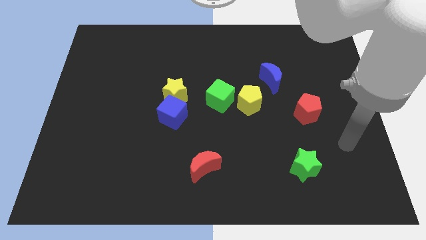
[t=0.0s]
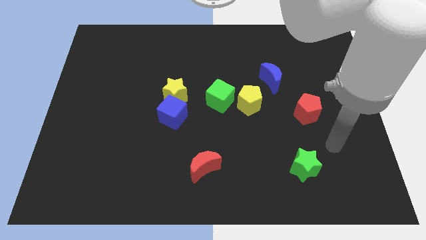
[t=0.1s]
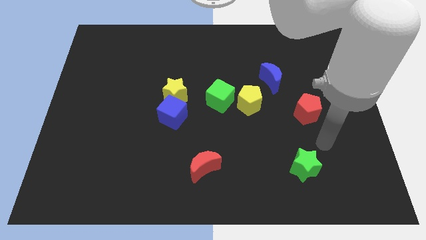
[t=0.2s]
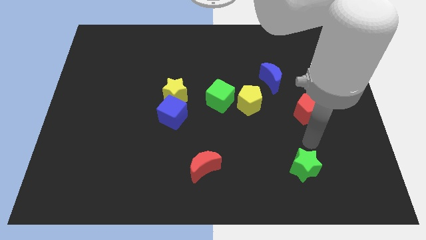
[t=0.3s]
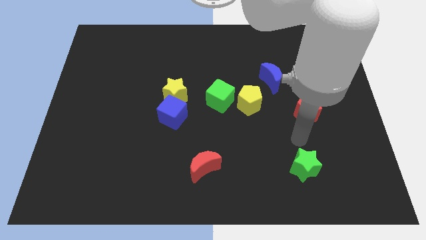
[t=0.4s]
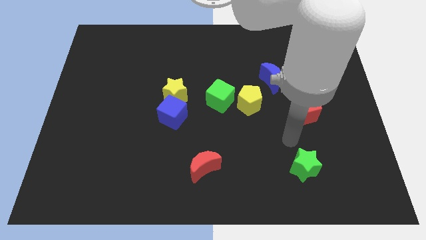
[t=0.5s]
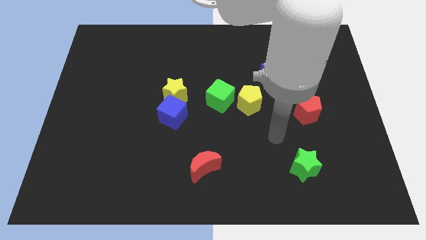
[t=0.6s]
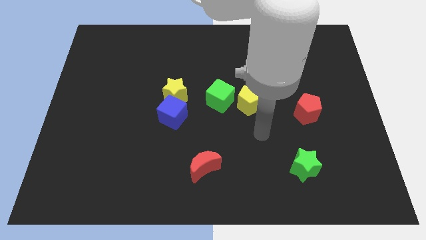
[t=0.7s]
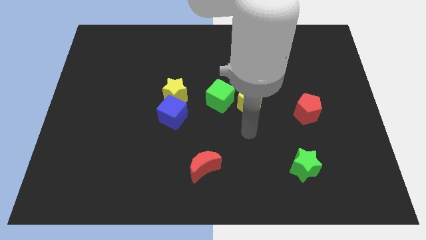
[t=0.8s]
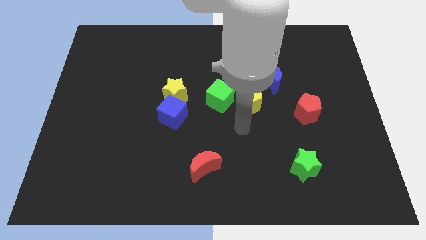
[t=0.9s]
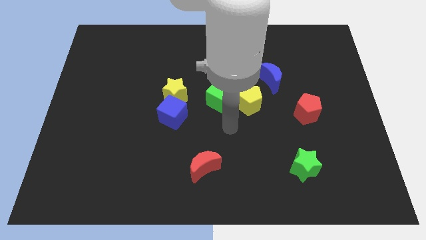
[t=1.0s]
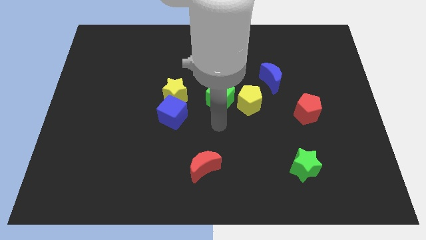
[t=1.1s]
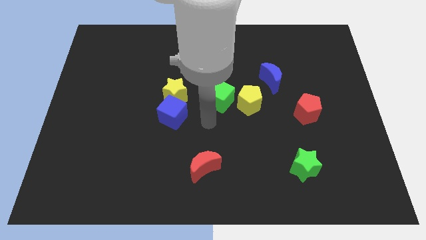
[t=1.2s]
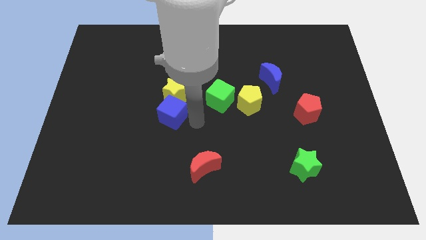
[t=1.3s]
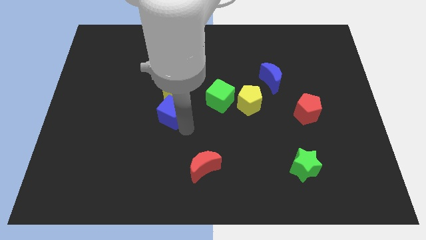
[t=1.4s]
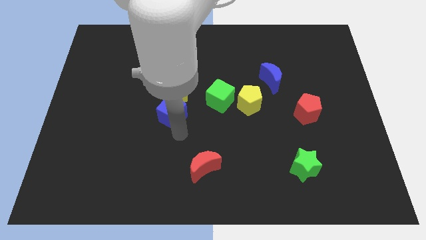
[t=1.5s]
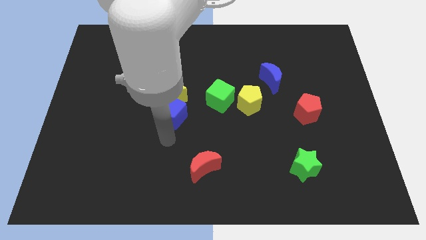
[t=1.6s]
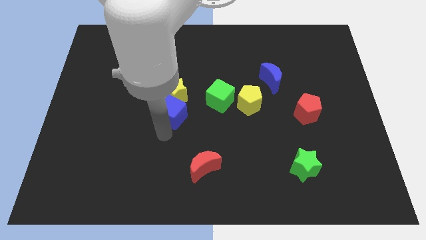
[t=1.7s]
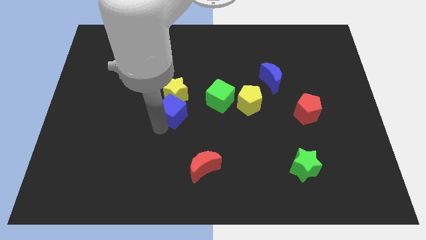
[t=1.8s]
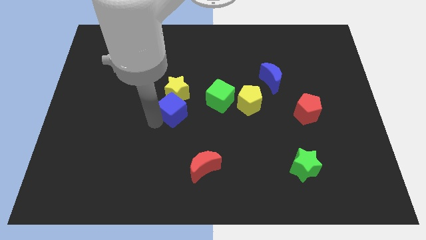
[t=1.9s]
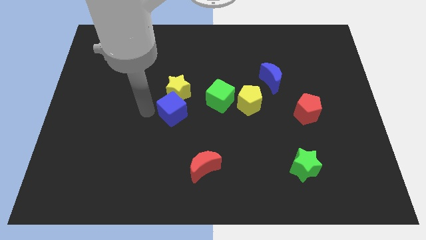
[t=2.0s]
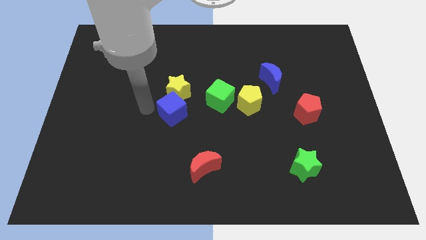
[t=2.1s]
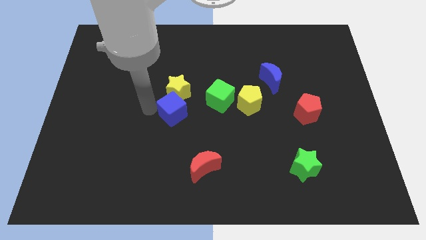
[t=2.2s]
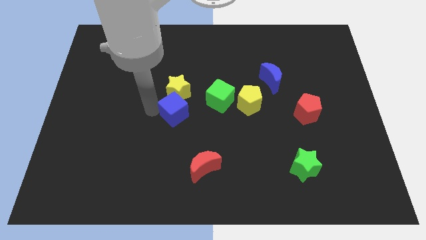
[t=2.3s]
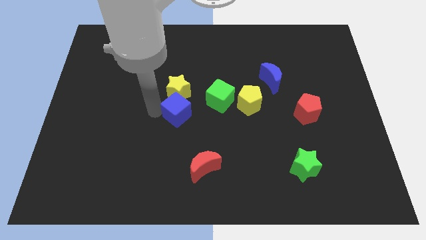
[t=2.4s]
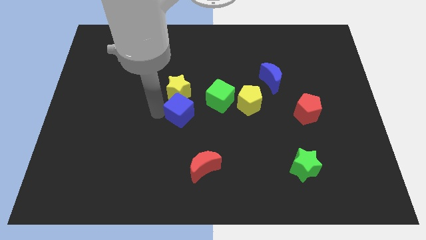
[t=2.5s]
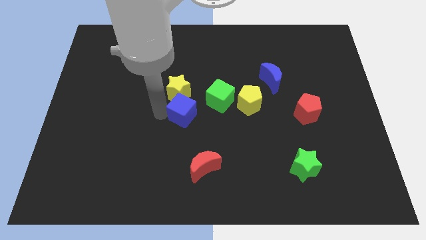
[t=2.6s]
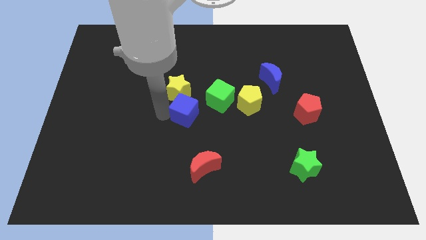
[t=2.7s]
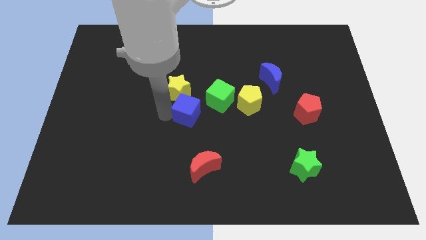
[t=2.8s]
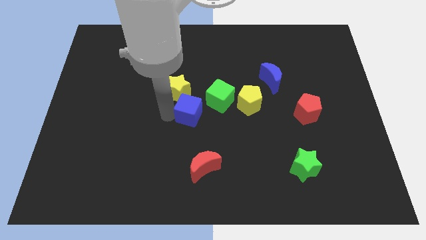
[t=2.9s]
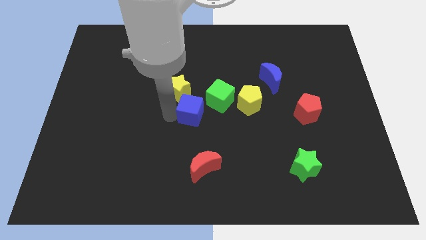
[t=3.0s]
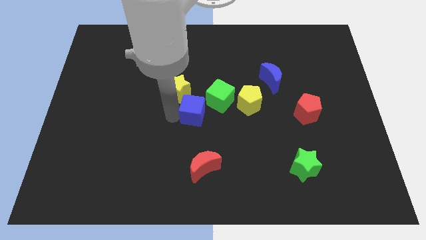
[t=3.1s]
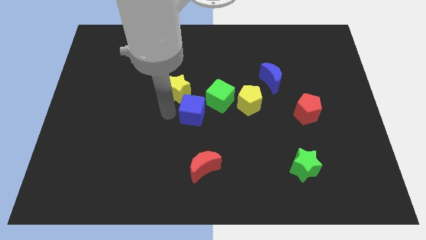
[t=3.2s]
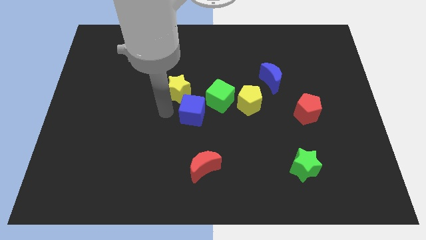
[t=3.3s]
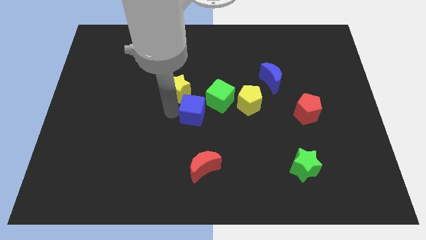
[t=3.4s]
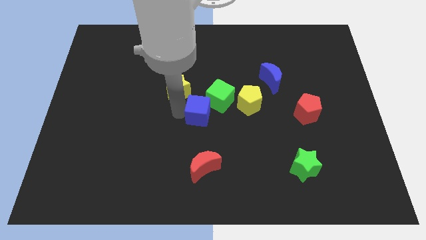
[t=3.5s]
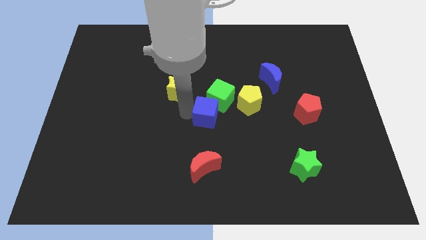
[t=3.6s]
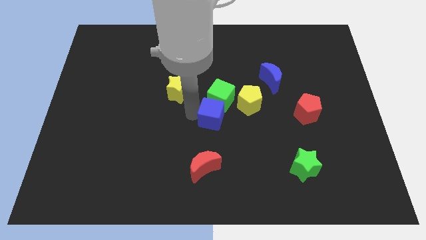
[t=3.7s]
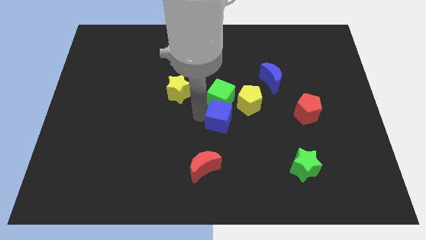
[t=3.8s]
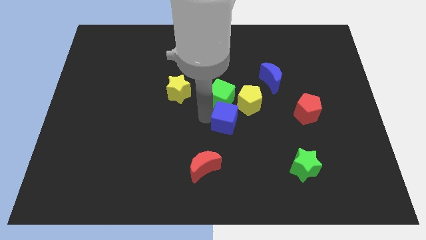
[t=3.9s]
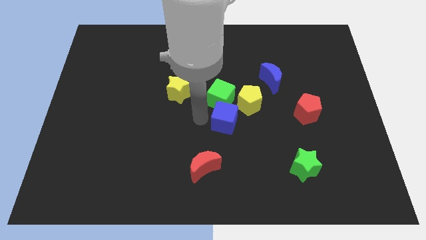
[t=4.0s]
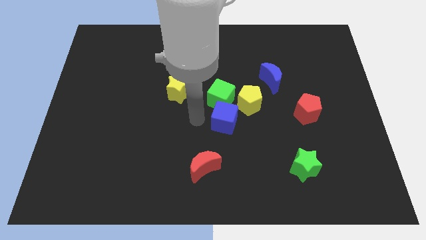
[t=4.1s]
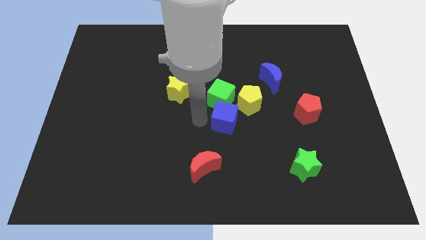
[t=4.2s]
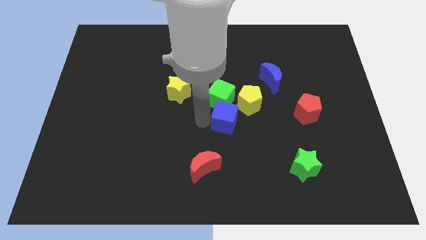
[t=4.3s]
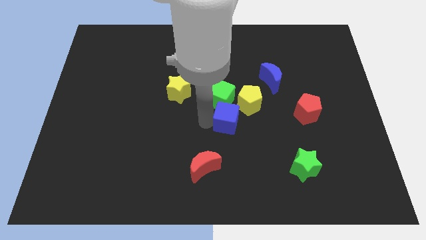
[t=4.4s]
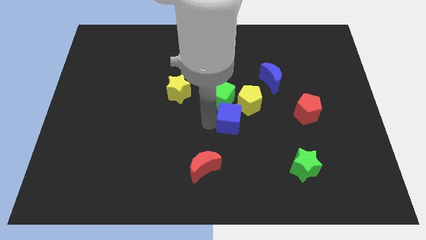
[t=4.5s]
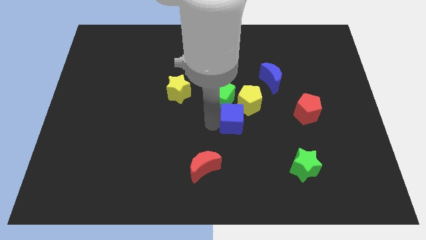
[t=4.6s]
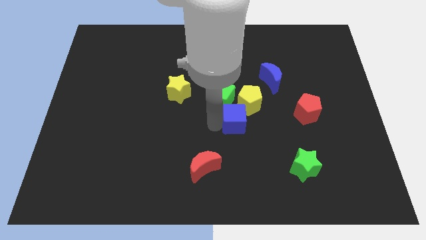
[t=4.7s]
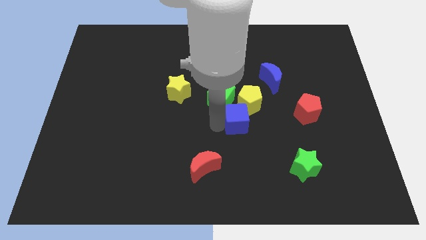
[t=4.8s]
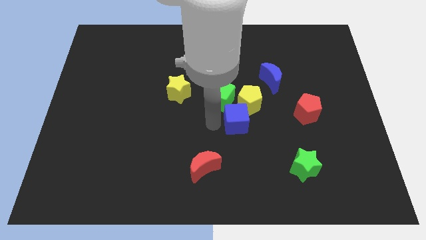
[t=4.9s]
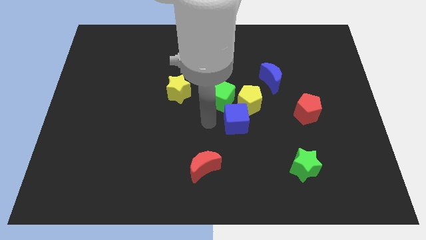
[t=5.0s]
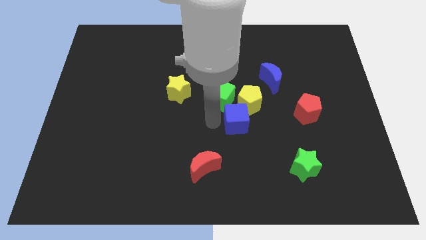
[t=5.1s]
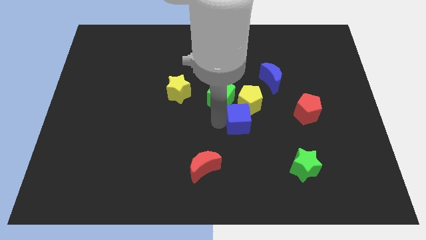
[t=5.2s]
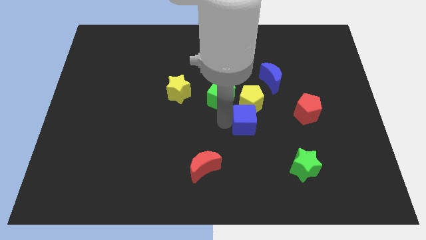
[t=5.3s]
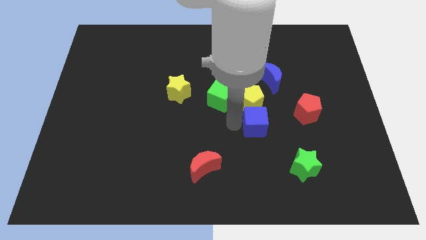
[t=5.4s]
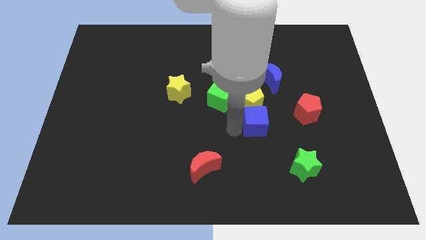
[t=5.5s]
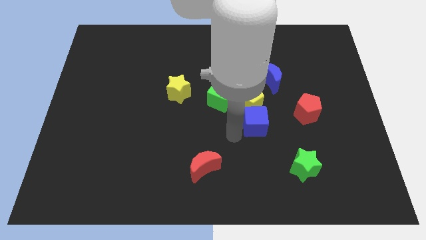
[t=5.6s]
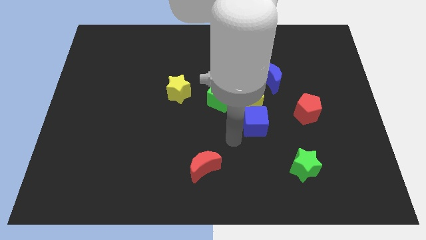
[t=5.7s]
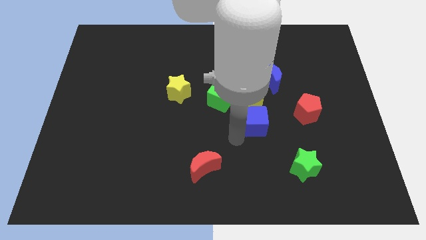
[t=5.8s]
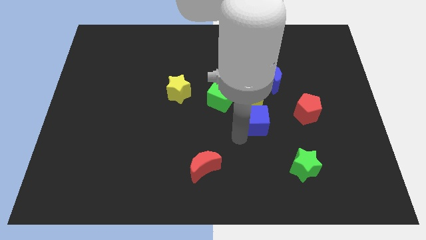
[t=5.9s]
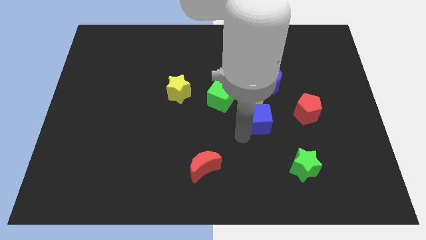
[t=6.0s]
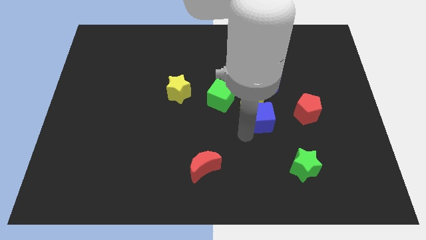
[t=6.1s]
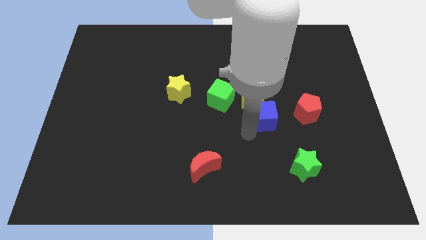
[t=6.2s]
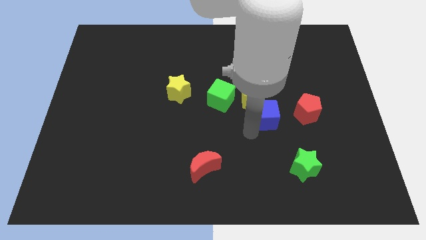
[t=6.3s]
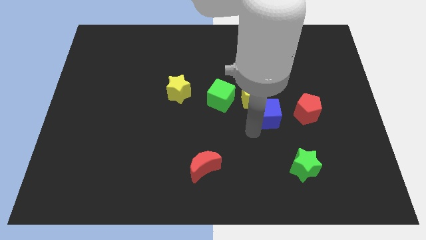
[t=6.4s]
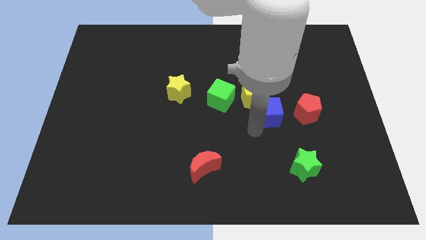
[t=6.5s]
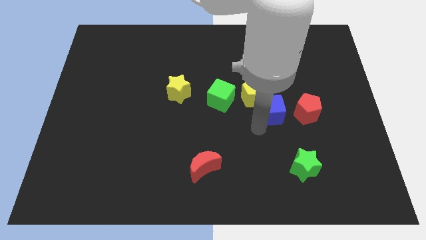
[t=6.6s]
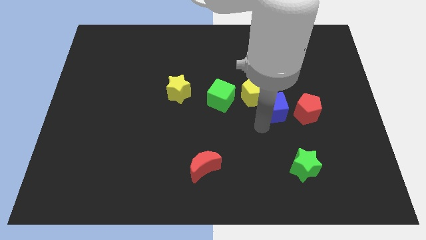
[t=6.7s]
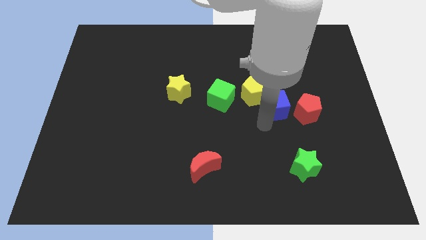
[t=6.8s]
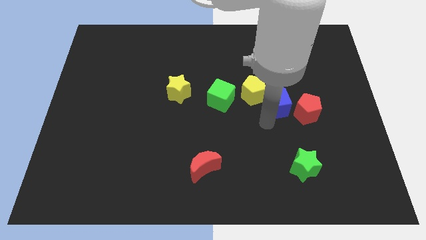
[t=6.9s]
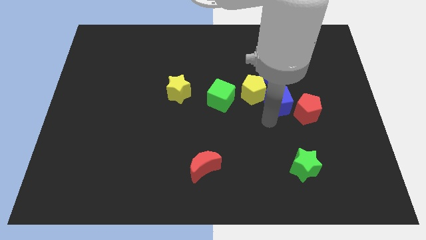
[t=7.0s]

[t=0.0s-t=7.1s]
push the blue cube diagonally down and to the right of the blue moon
